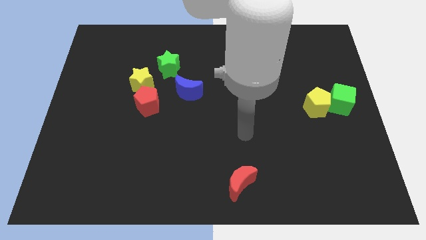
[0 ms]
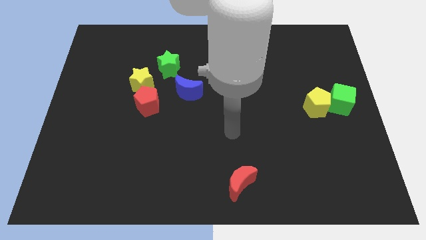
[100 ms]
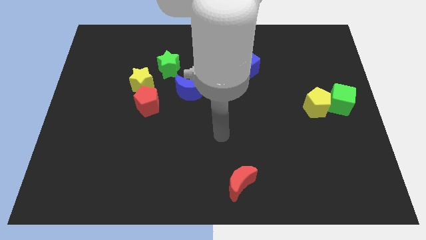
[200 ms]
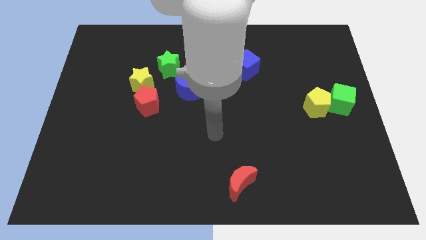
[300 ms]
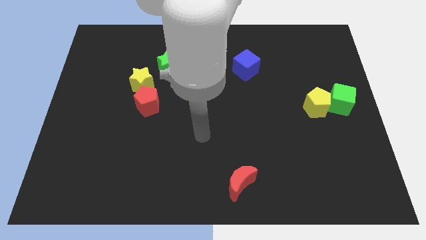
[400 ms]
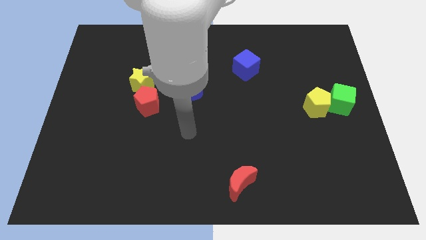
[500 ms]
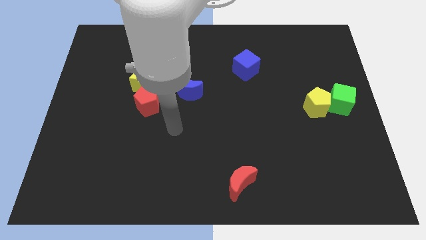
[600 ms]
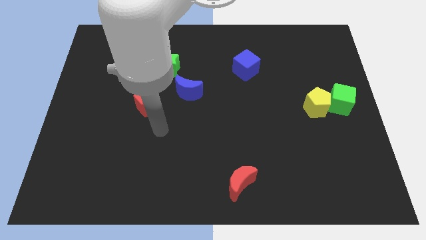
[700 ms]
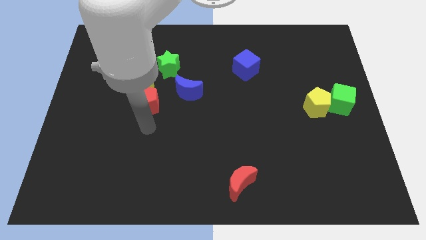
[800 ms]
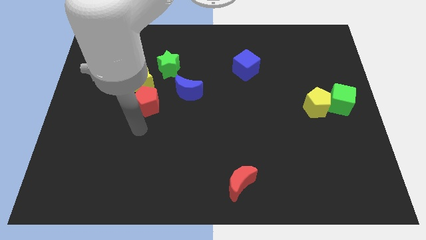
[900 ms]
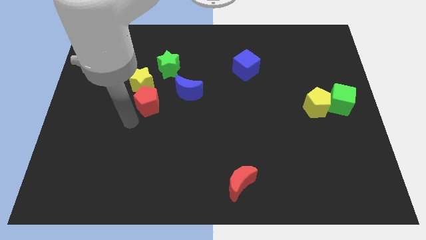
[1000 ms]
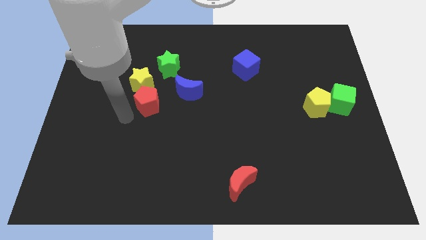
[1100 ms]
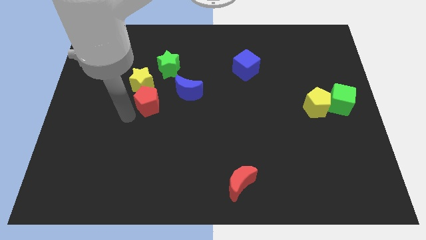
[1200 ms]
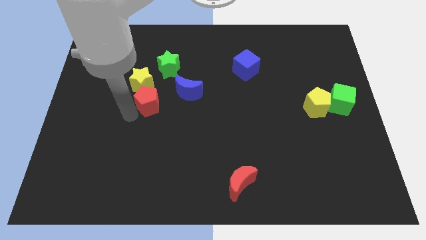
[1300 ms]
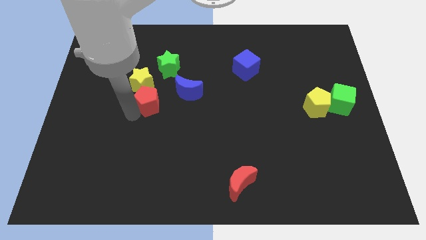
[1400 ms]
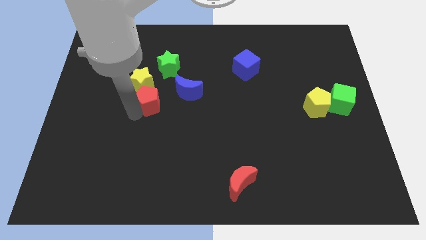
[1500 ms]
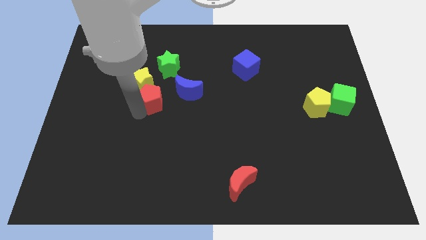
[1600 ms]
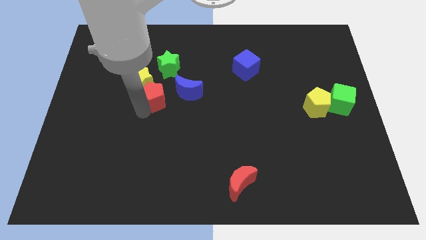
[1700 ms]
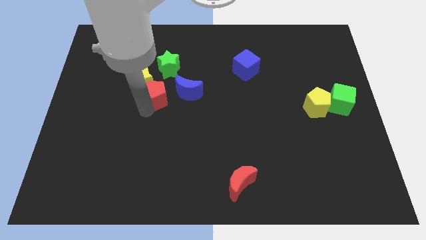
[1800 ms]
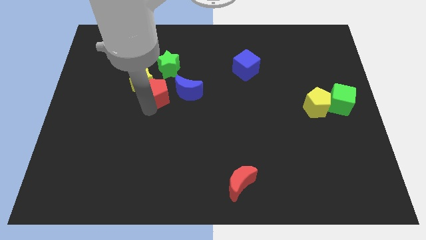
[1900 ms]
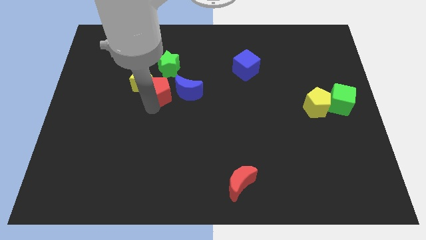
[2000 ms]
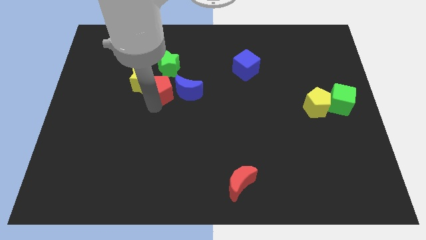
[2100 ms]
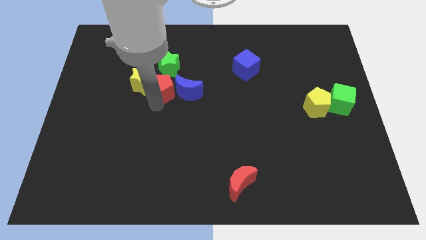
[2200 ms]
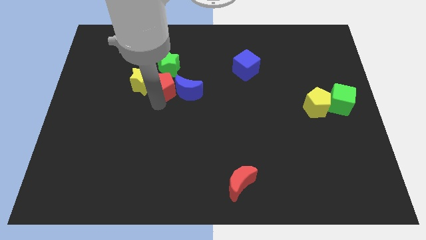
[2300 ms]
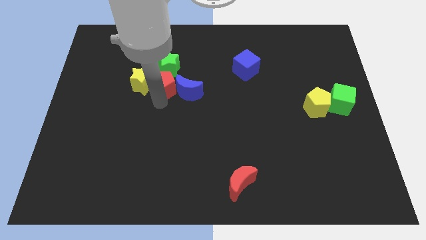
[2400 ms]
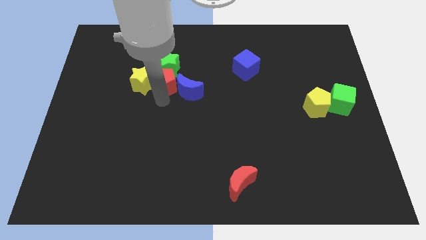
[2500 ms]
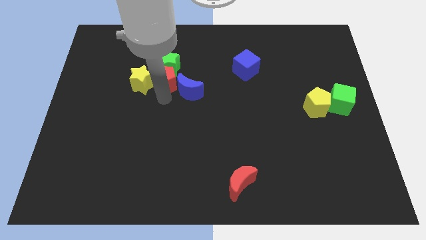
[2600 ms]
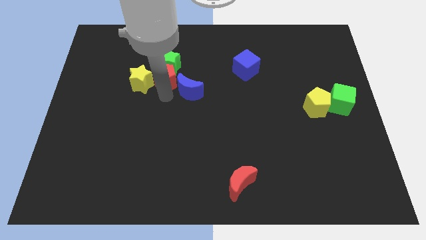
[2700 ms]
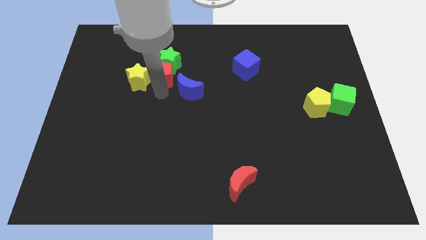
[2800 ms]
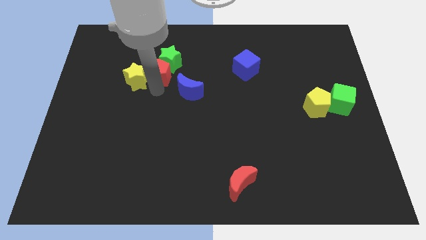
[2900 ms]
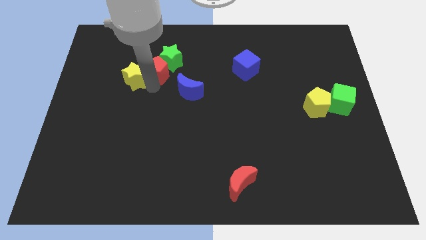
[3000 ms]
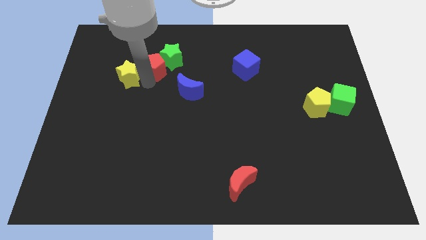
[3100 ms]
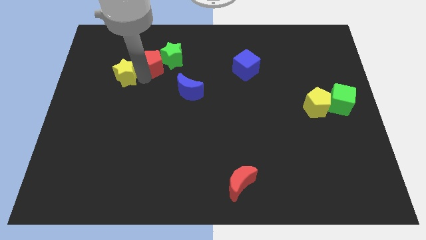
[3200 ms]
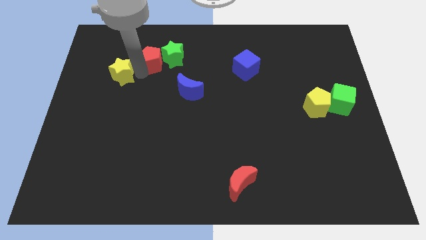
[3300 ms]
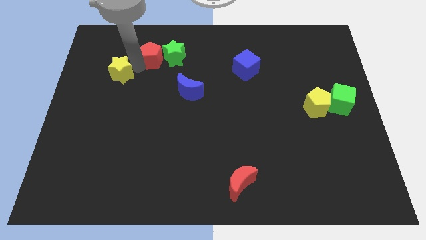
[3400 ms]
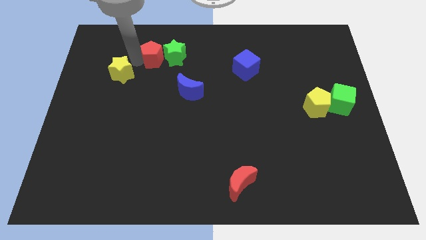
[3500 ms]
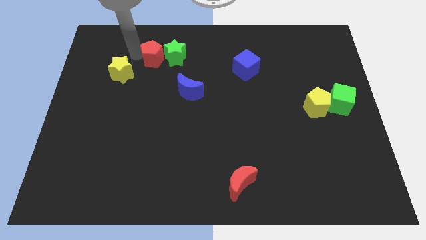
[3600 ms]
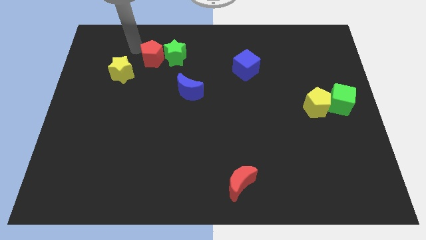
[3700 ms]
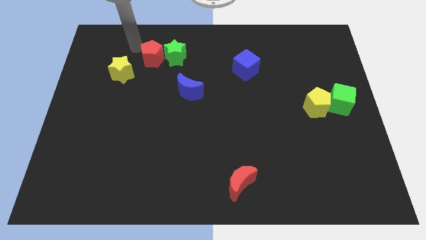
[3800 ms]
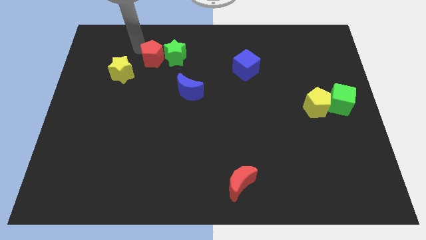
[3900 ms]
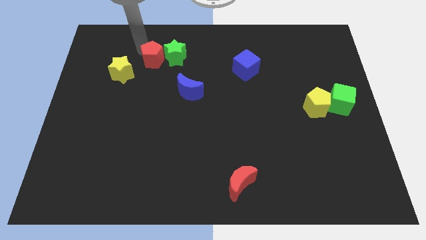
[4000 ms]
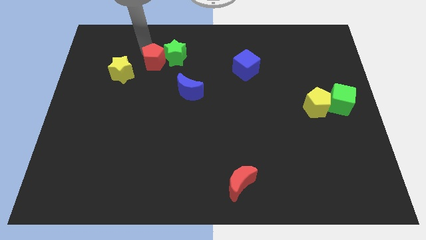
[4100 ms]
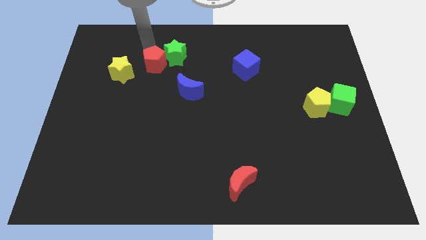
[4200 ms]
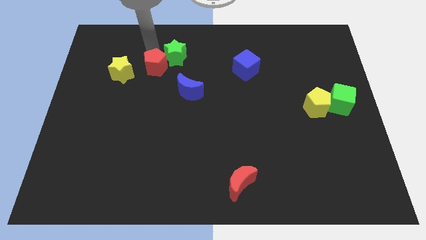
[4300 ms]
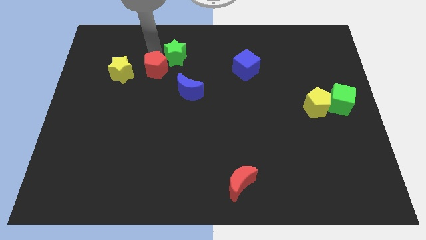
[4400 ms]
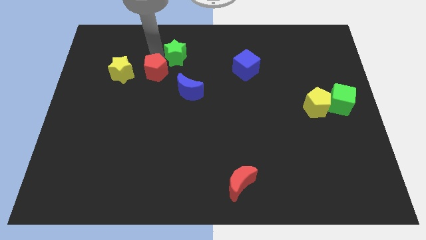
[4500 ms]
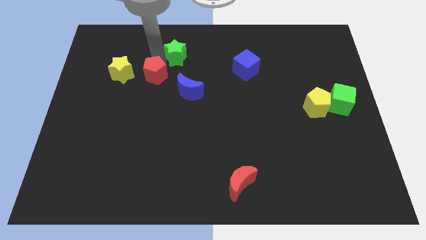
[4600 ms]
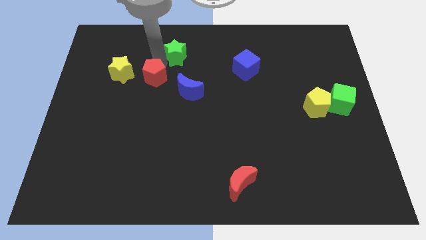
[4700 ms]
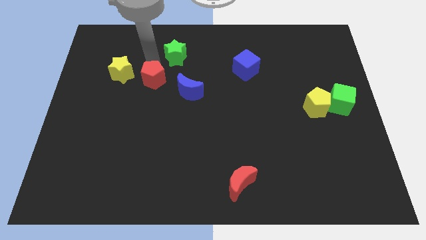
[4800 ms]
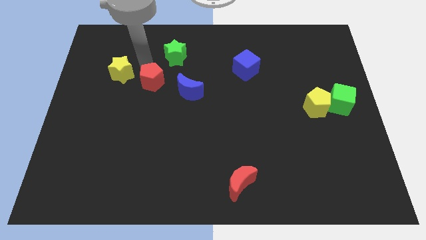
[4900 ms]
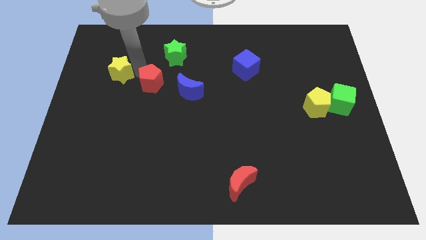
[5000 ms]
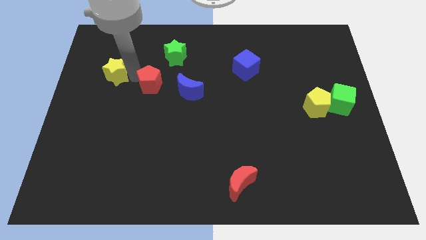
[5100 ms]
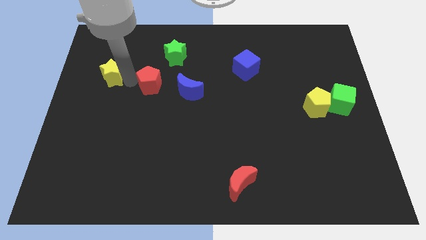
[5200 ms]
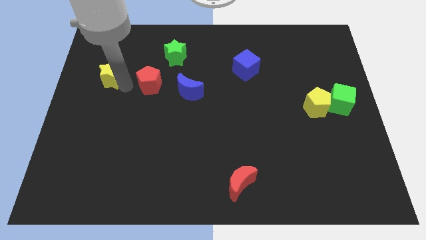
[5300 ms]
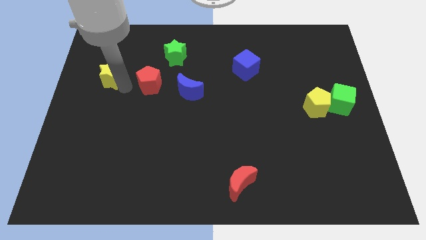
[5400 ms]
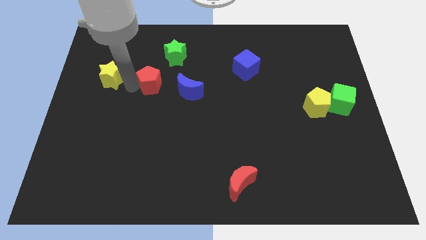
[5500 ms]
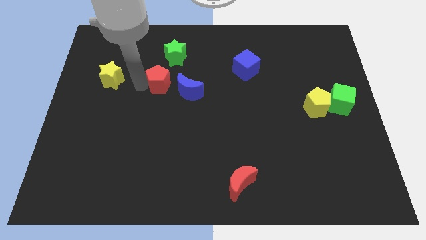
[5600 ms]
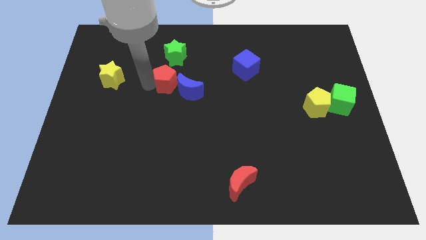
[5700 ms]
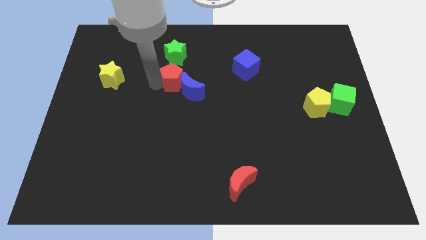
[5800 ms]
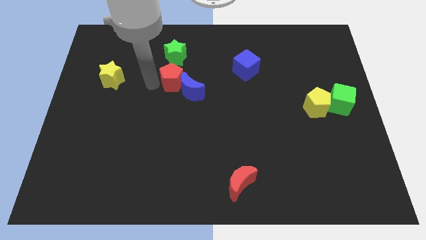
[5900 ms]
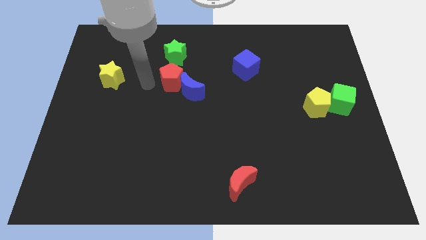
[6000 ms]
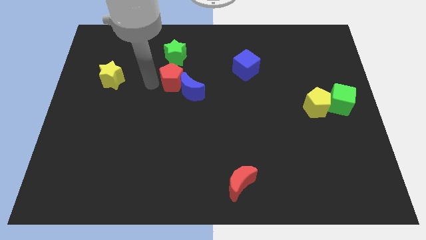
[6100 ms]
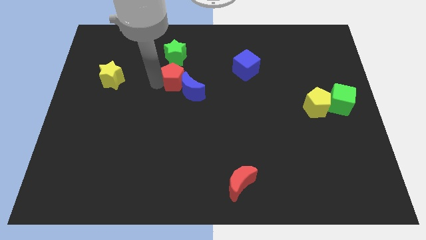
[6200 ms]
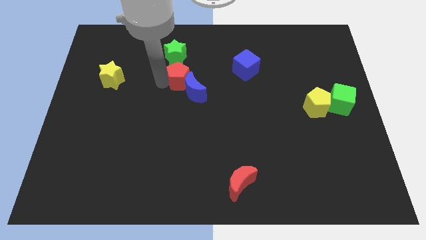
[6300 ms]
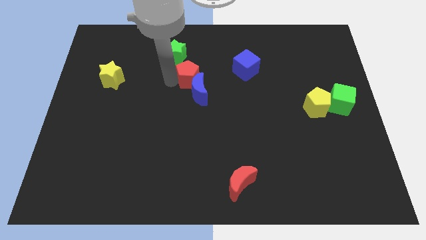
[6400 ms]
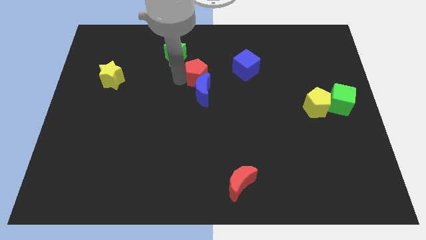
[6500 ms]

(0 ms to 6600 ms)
slide the red pentagon to the top right of the blue moon

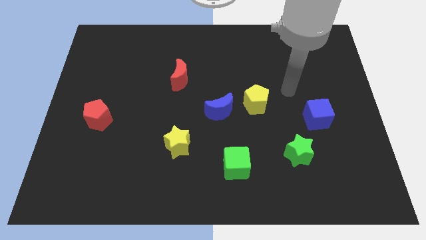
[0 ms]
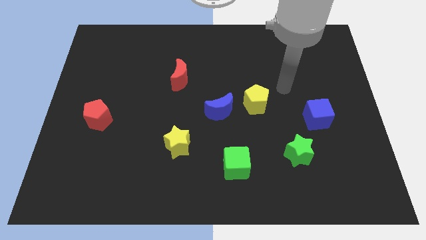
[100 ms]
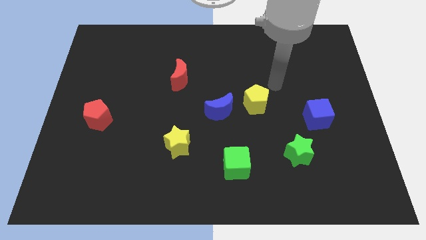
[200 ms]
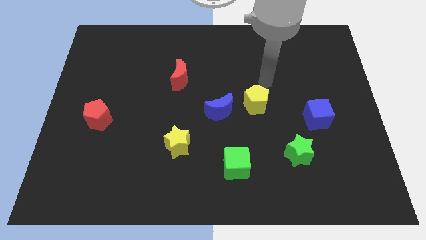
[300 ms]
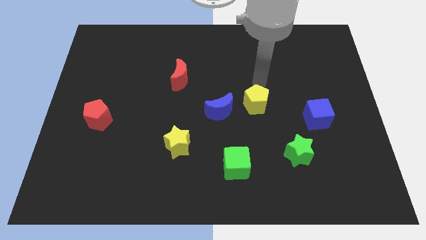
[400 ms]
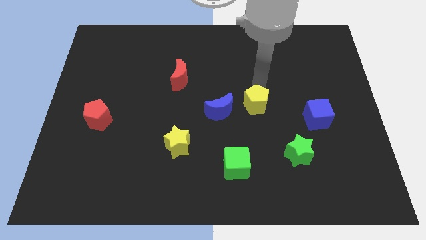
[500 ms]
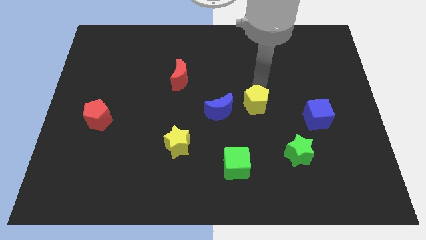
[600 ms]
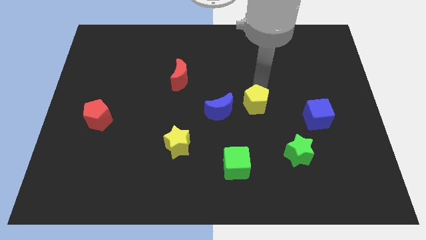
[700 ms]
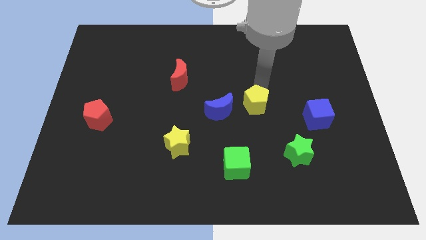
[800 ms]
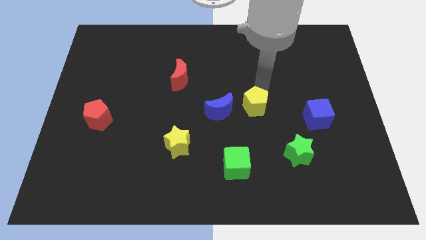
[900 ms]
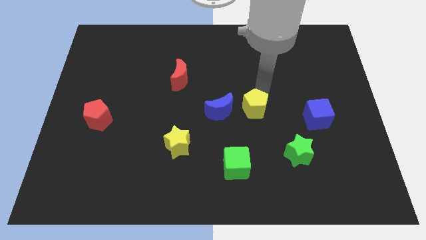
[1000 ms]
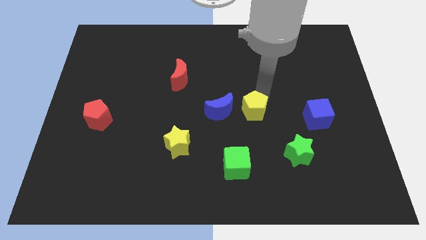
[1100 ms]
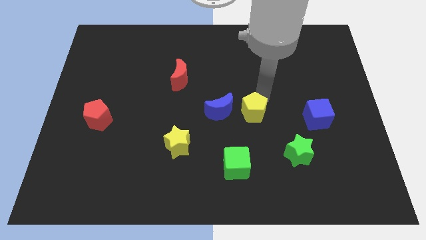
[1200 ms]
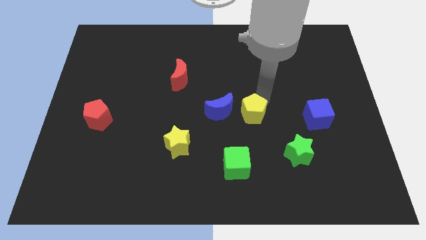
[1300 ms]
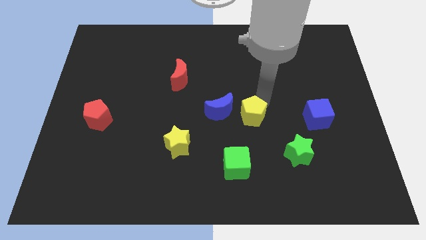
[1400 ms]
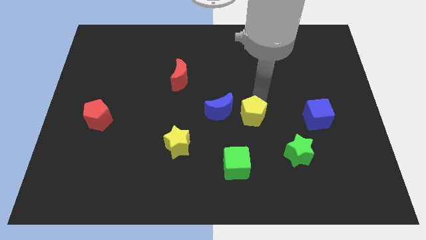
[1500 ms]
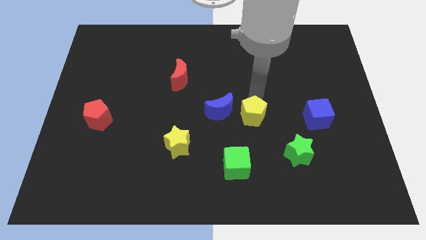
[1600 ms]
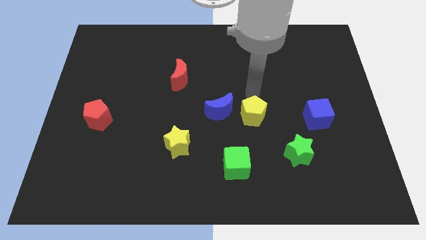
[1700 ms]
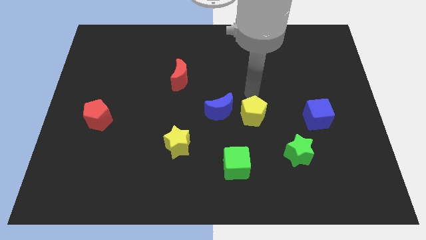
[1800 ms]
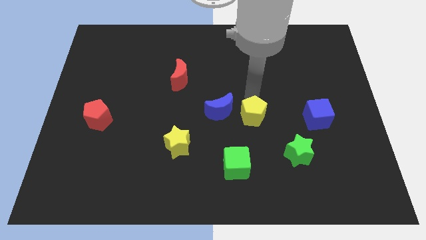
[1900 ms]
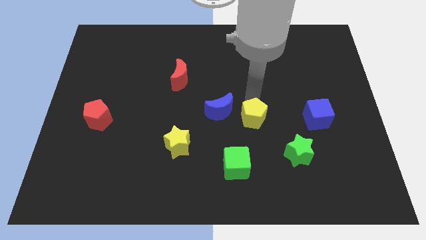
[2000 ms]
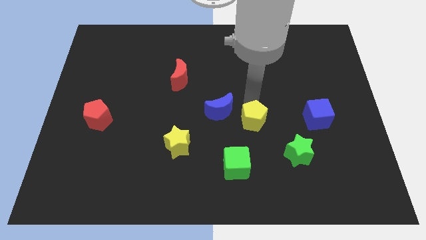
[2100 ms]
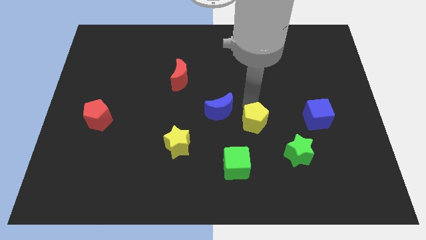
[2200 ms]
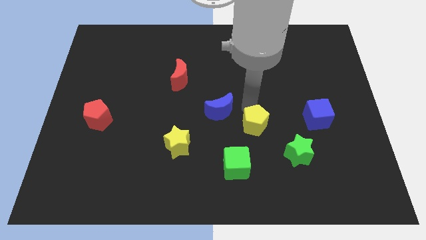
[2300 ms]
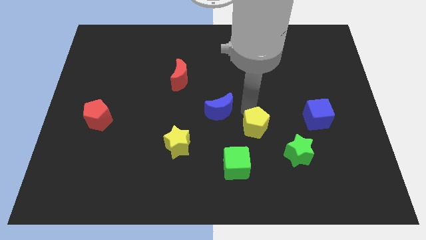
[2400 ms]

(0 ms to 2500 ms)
put the yellow pentagon to the top right side of the green cube
